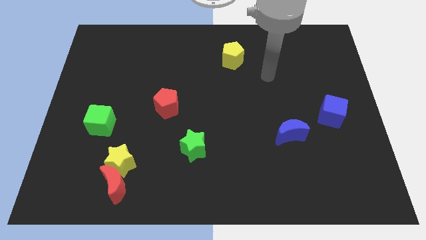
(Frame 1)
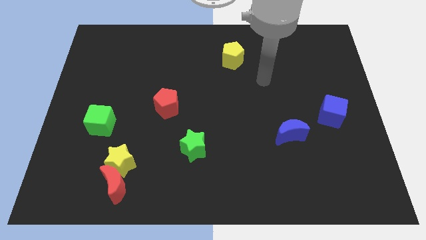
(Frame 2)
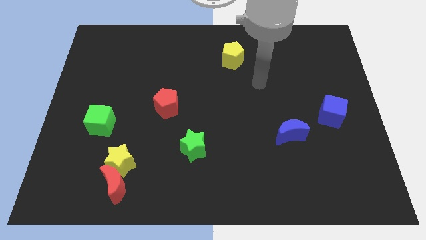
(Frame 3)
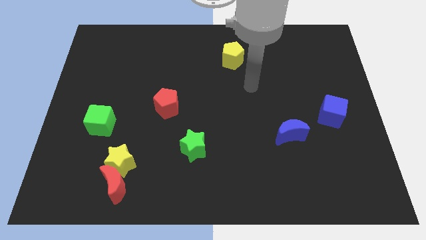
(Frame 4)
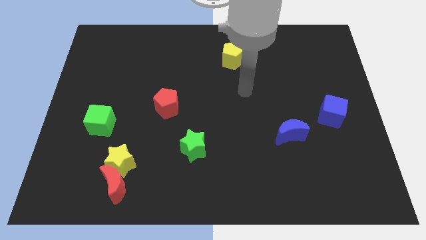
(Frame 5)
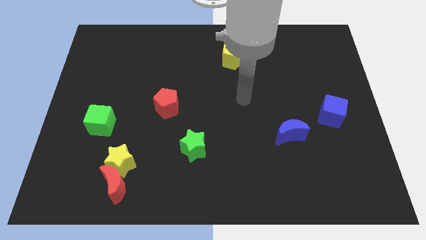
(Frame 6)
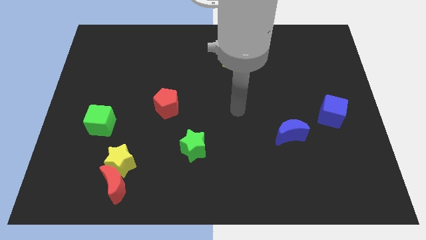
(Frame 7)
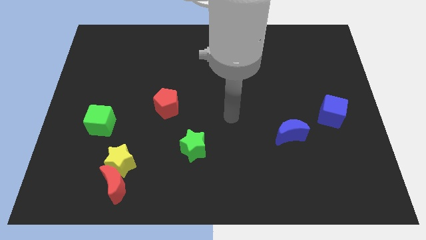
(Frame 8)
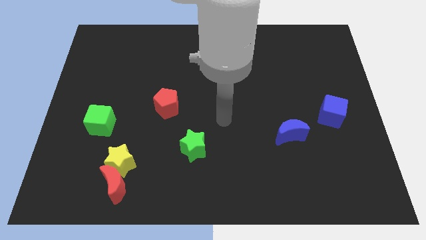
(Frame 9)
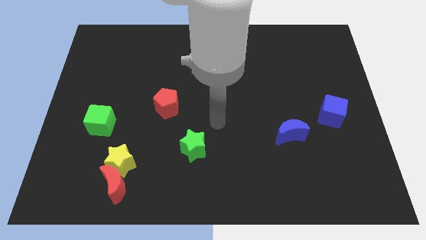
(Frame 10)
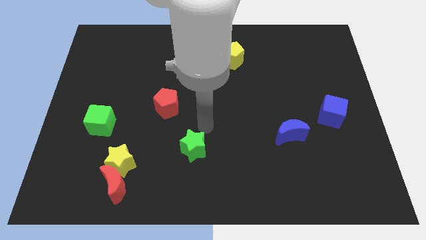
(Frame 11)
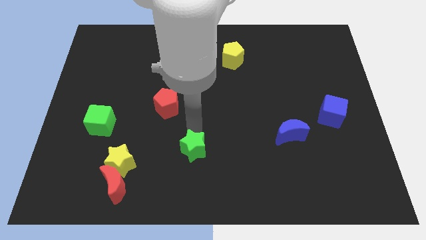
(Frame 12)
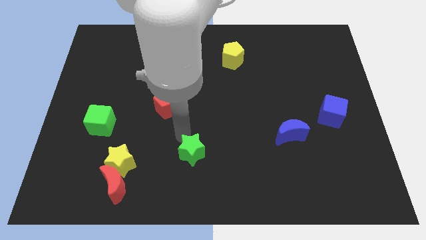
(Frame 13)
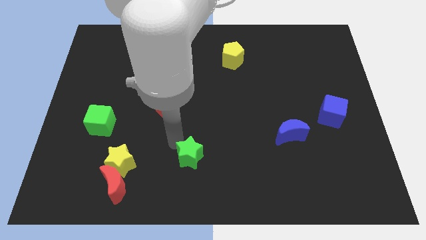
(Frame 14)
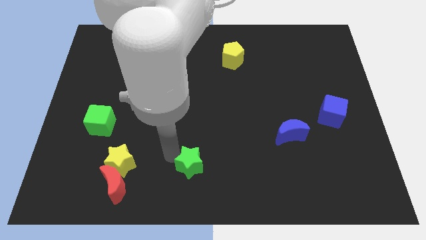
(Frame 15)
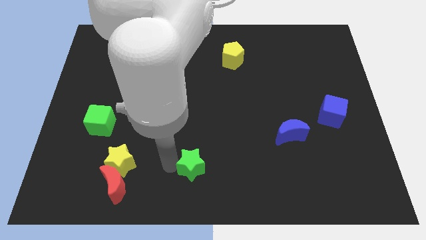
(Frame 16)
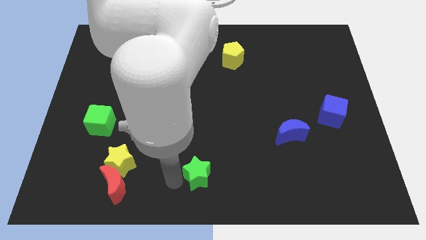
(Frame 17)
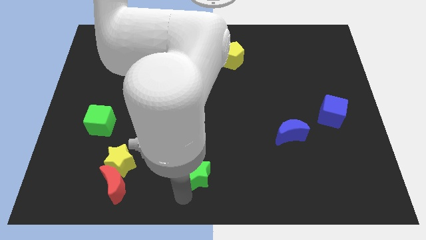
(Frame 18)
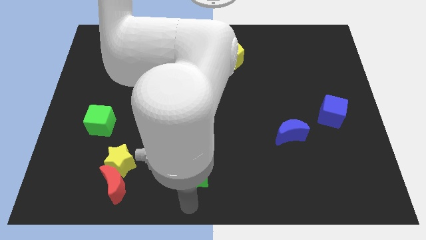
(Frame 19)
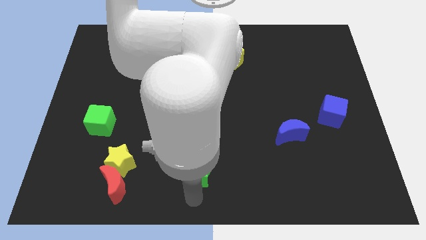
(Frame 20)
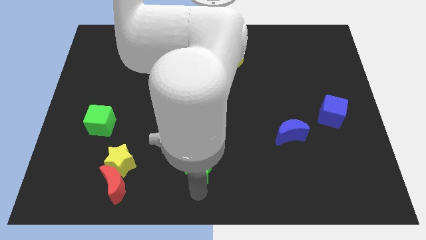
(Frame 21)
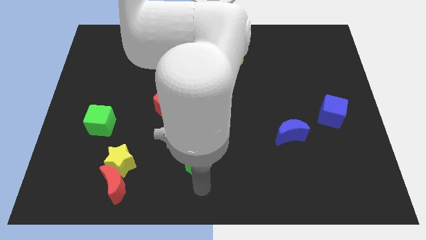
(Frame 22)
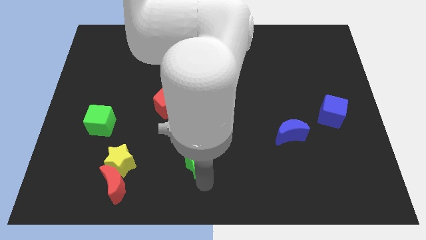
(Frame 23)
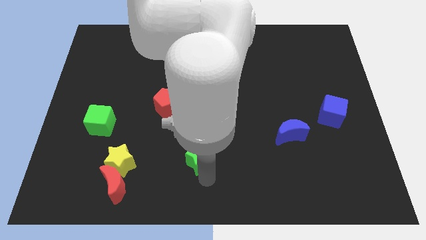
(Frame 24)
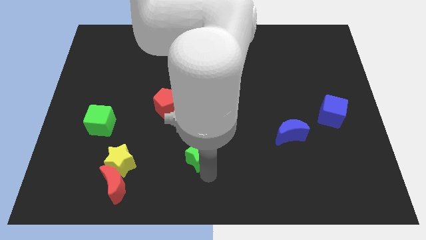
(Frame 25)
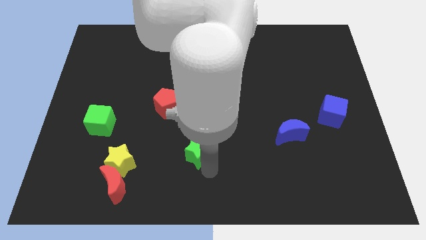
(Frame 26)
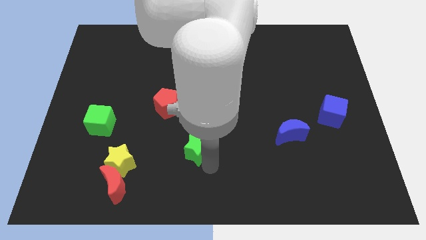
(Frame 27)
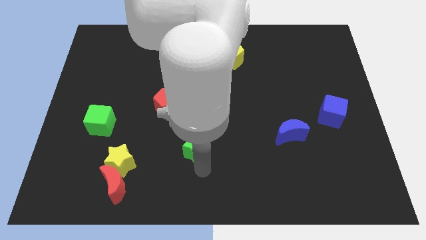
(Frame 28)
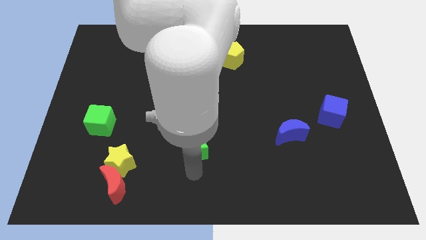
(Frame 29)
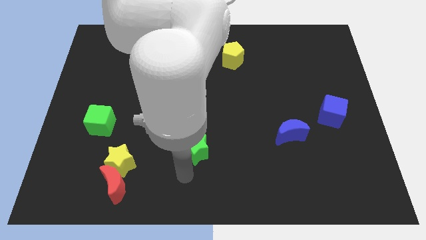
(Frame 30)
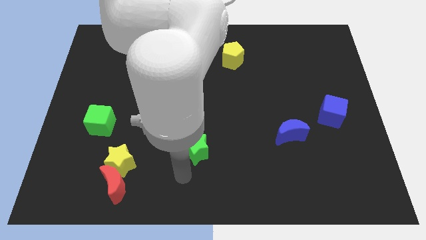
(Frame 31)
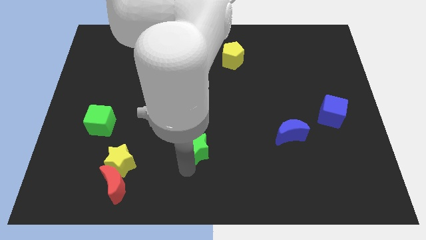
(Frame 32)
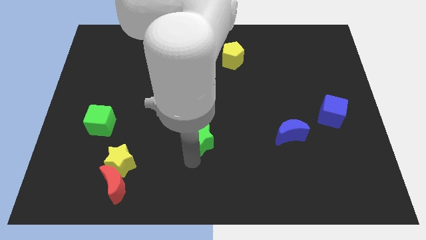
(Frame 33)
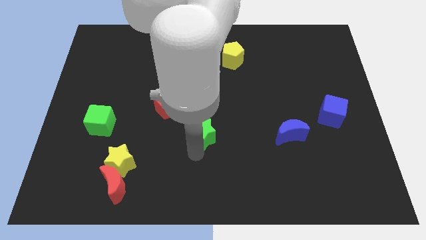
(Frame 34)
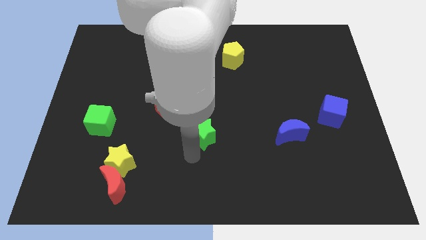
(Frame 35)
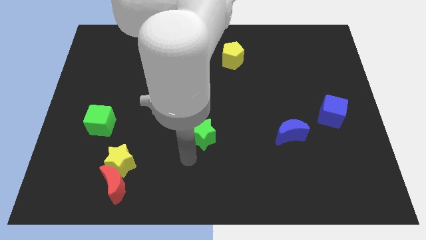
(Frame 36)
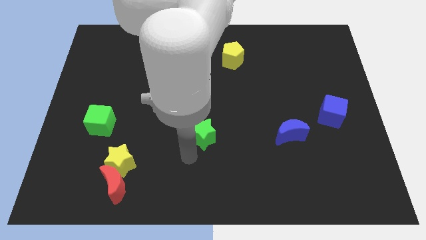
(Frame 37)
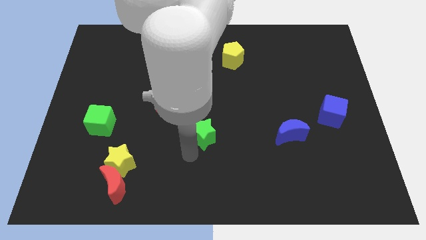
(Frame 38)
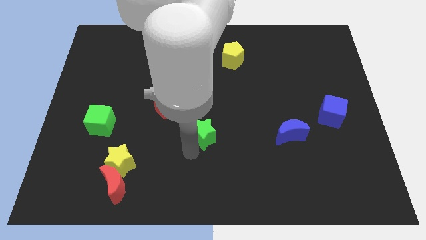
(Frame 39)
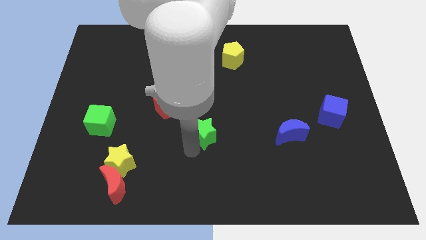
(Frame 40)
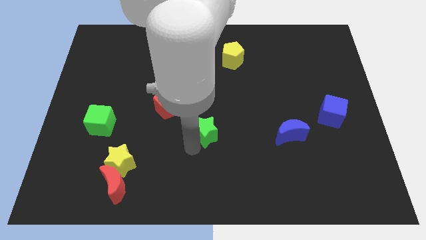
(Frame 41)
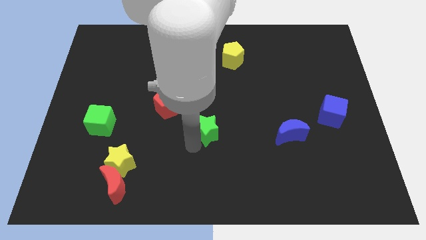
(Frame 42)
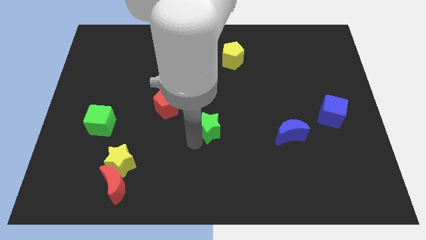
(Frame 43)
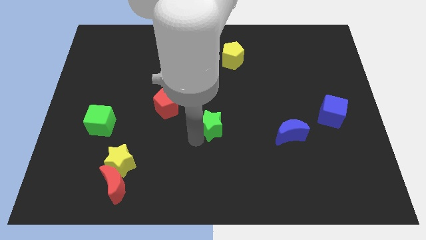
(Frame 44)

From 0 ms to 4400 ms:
push the green star upwards and to the right somewhat

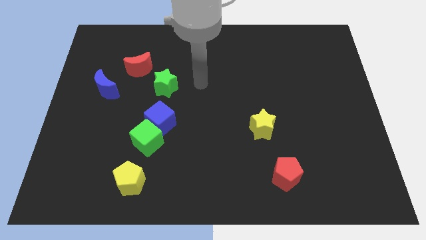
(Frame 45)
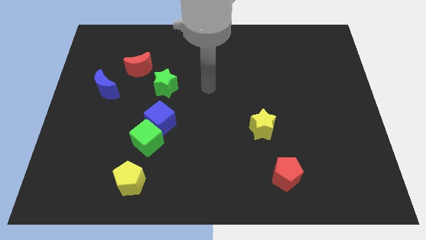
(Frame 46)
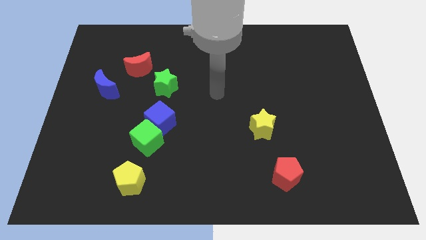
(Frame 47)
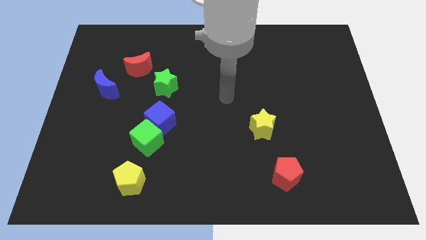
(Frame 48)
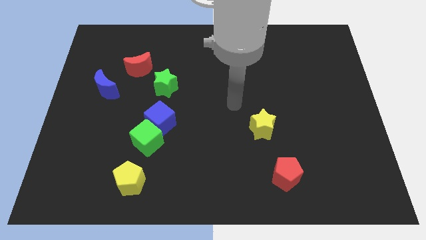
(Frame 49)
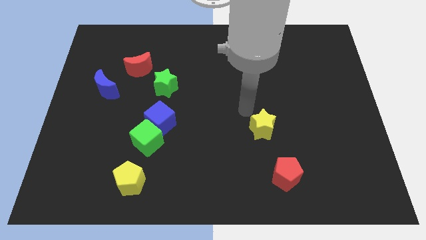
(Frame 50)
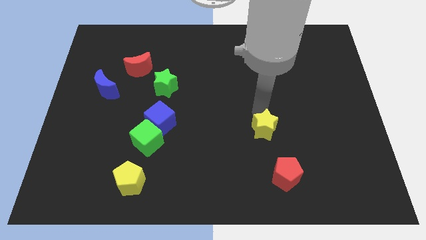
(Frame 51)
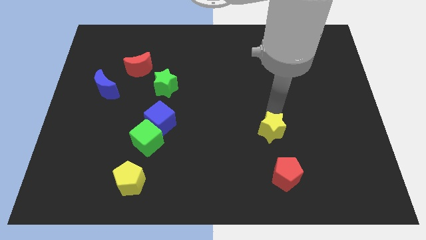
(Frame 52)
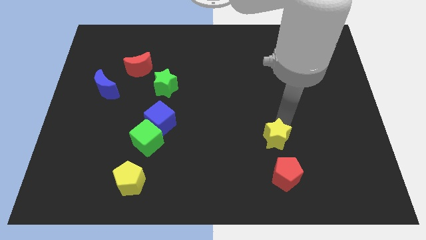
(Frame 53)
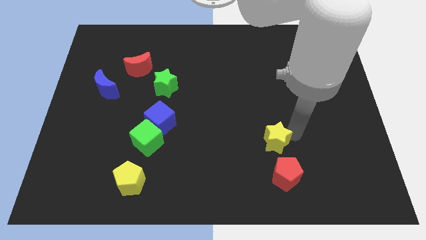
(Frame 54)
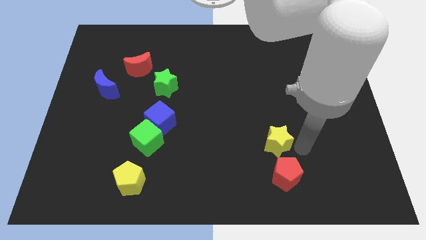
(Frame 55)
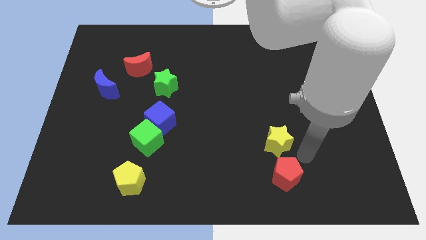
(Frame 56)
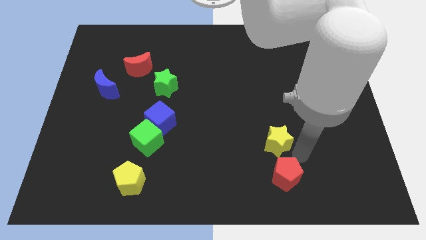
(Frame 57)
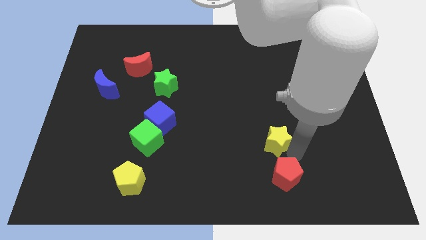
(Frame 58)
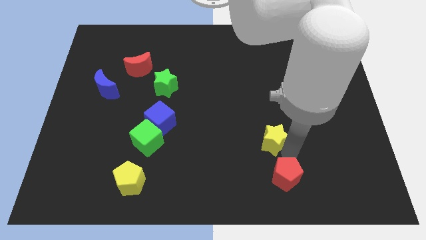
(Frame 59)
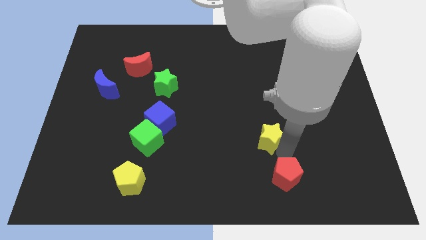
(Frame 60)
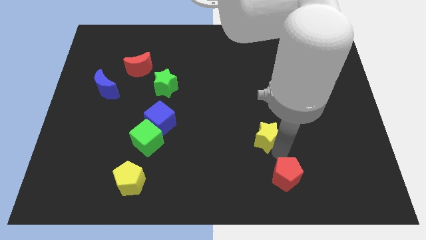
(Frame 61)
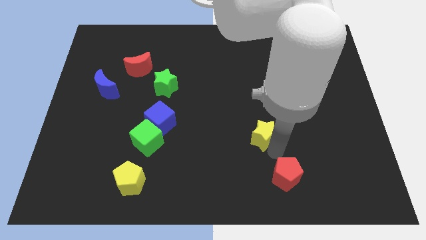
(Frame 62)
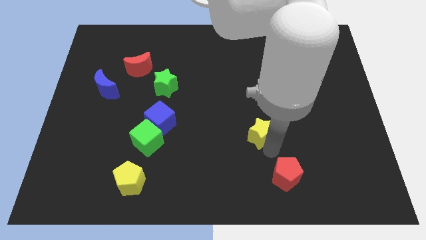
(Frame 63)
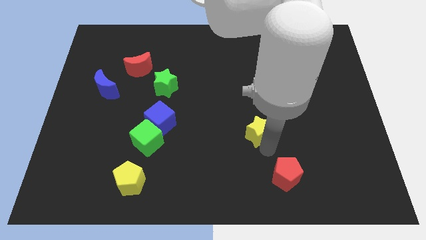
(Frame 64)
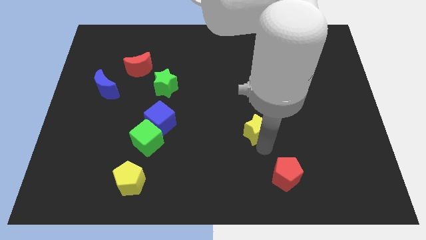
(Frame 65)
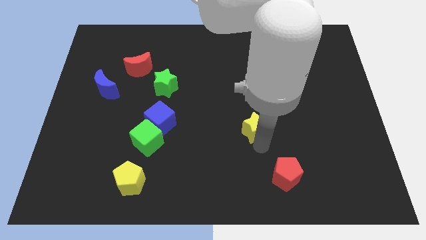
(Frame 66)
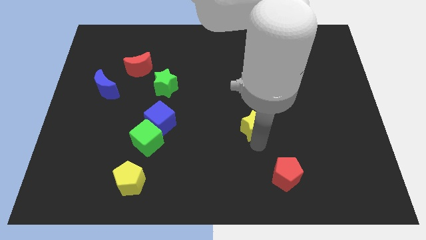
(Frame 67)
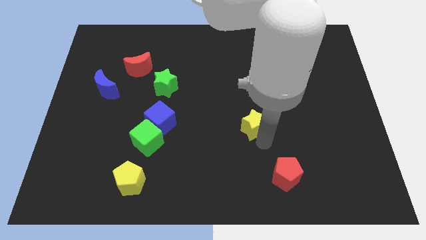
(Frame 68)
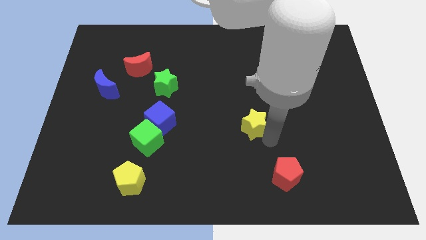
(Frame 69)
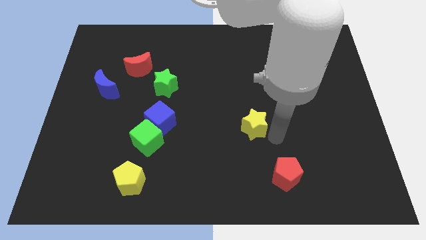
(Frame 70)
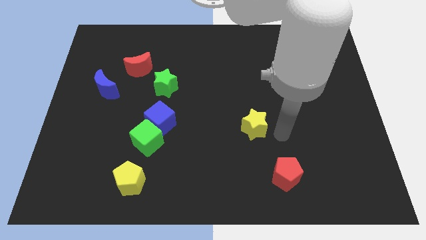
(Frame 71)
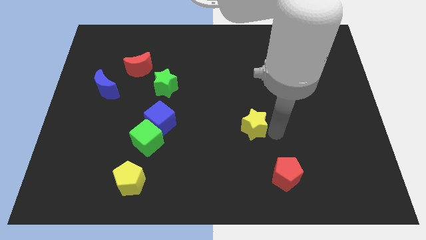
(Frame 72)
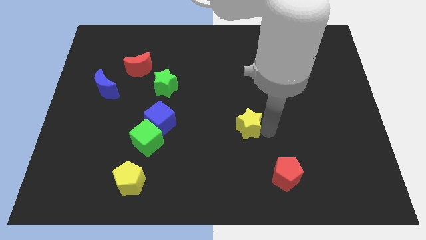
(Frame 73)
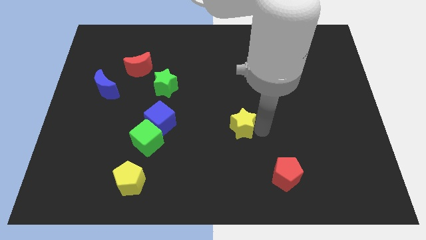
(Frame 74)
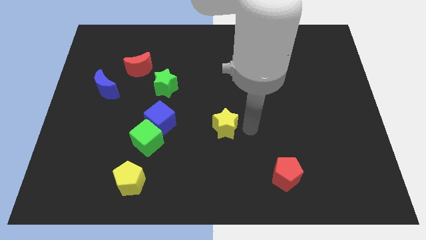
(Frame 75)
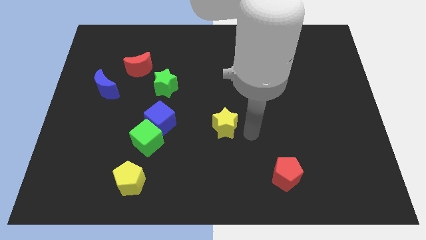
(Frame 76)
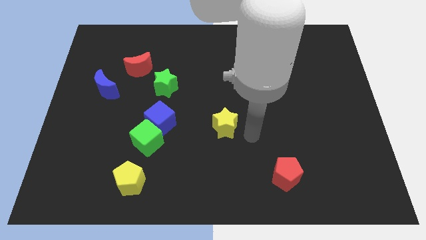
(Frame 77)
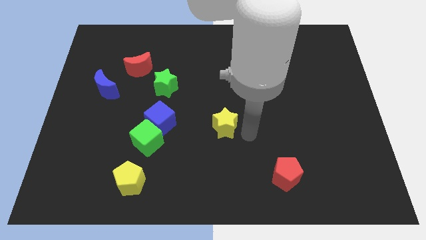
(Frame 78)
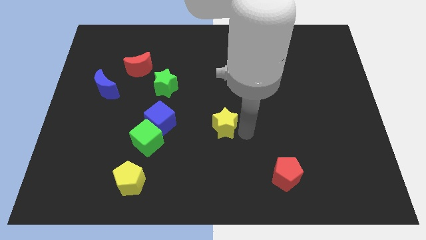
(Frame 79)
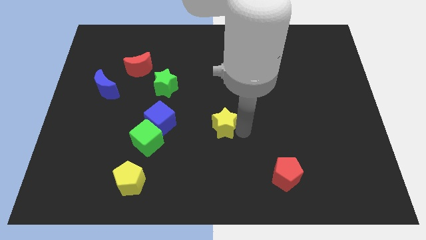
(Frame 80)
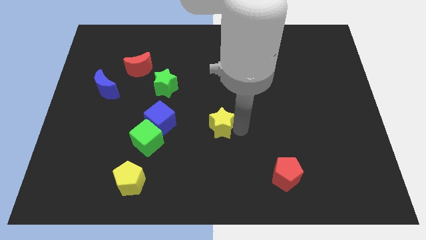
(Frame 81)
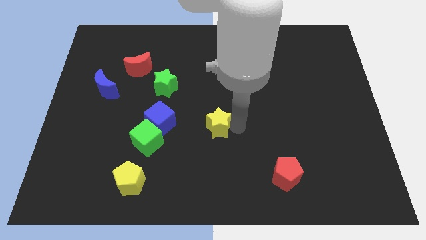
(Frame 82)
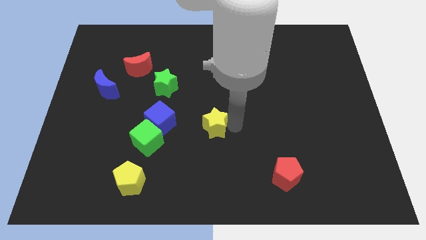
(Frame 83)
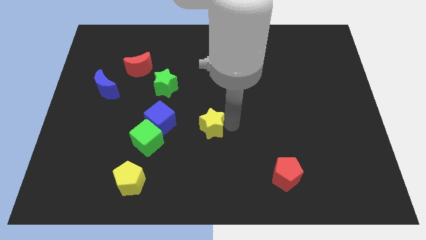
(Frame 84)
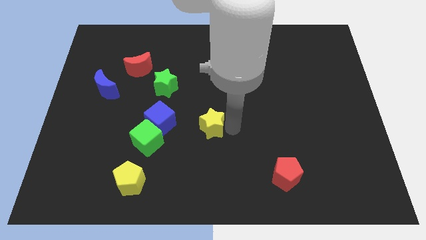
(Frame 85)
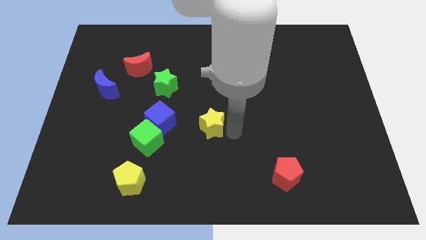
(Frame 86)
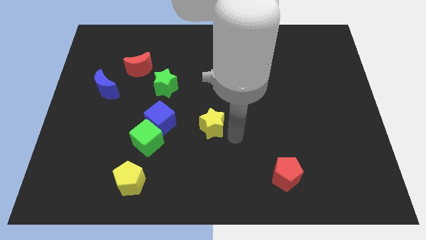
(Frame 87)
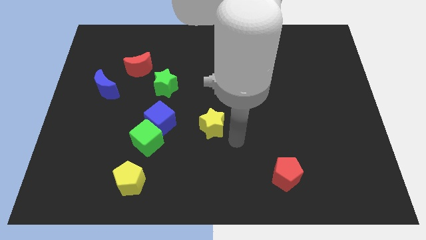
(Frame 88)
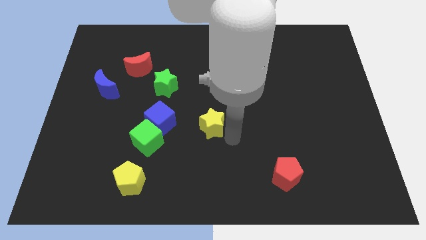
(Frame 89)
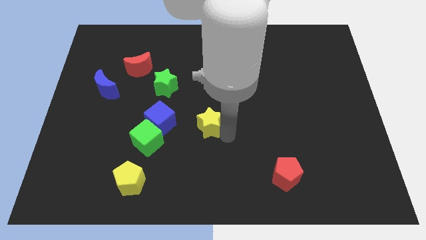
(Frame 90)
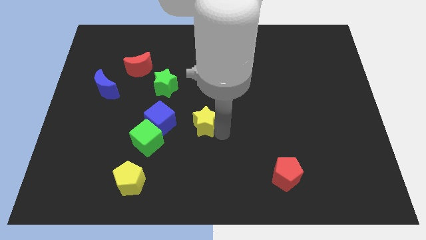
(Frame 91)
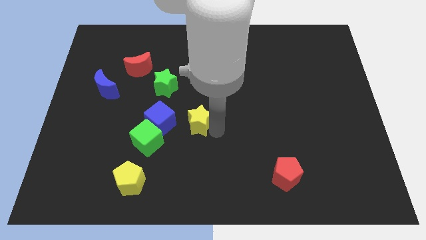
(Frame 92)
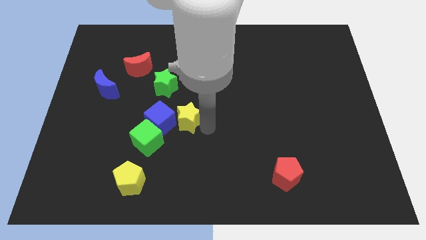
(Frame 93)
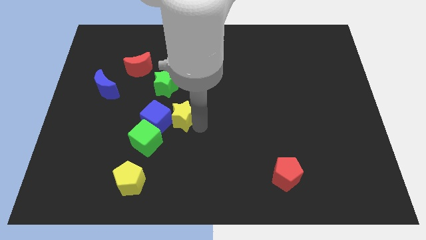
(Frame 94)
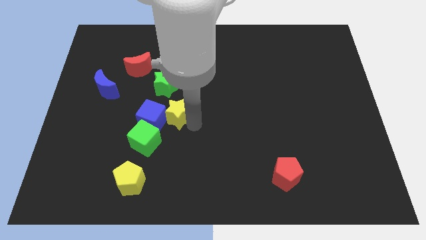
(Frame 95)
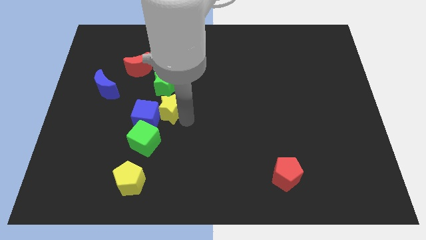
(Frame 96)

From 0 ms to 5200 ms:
slide the yellow star to the left
